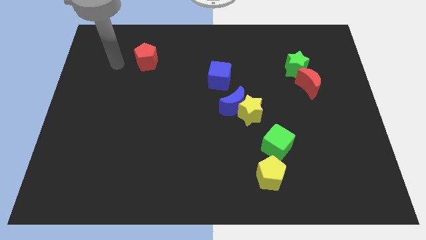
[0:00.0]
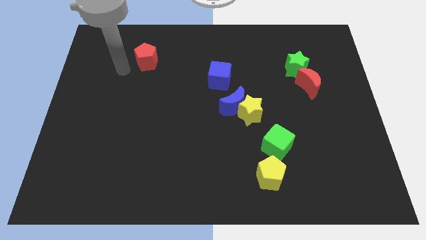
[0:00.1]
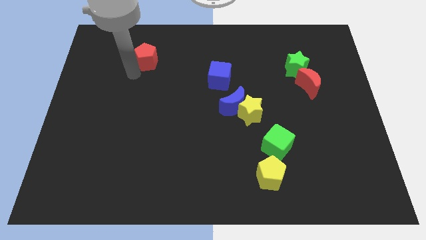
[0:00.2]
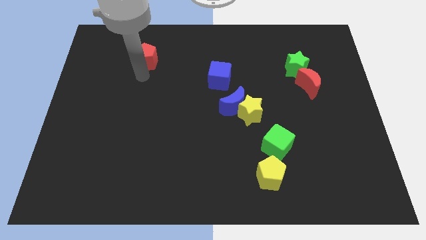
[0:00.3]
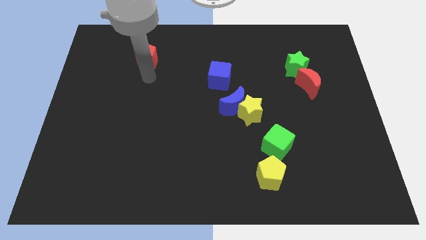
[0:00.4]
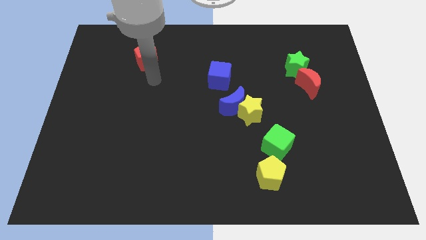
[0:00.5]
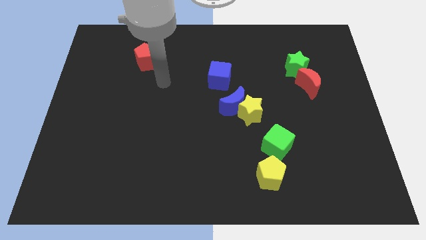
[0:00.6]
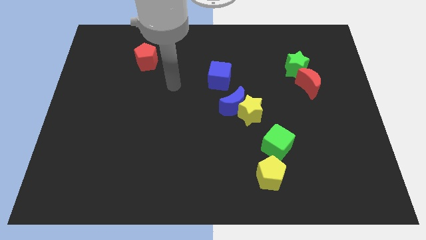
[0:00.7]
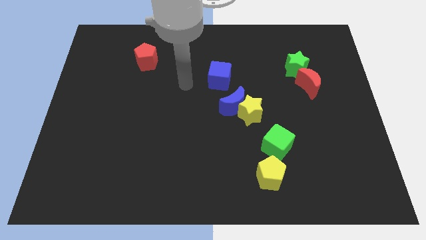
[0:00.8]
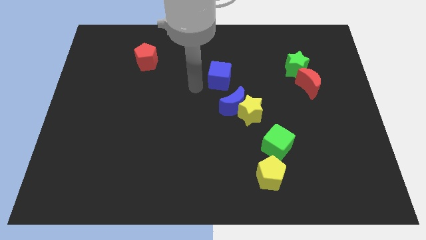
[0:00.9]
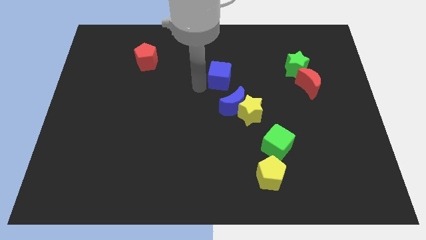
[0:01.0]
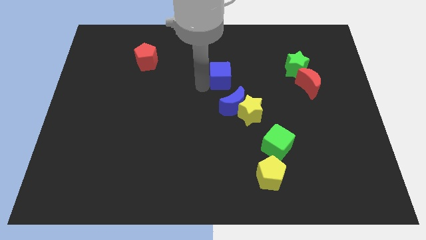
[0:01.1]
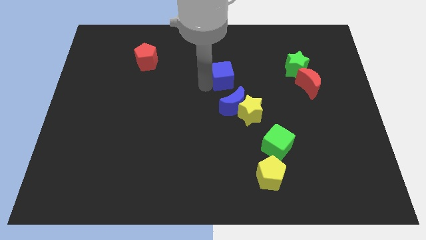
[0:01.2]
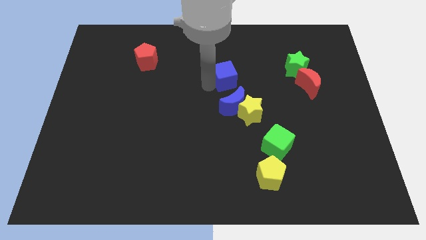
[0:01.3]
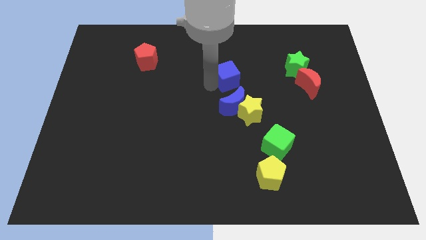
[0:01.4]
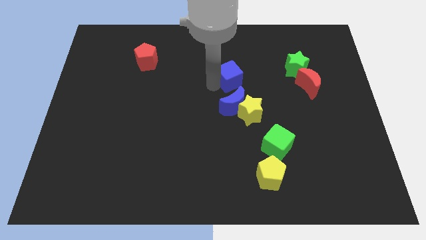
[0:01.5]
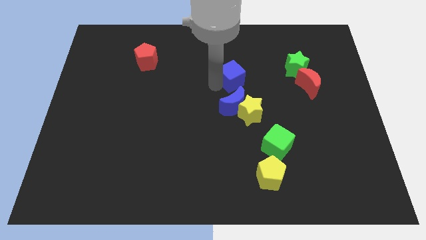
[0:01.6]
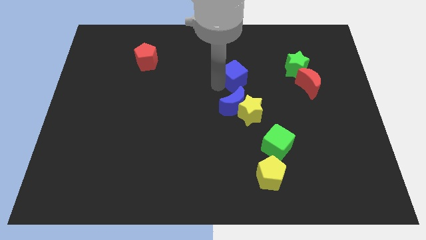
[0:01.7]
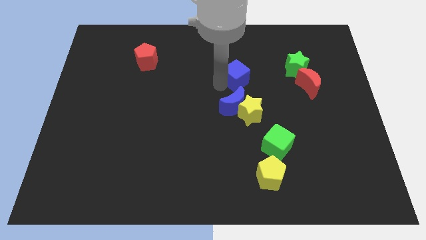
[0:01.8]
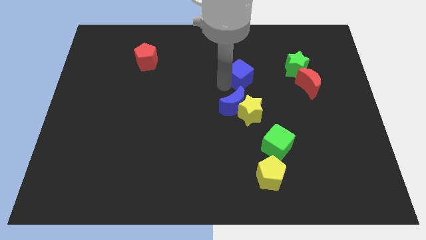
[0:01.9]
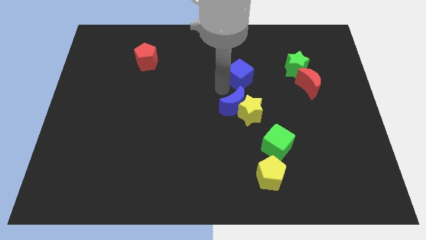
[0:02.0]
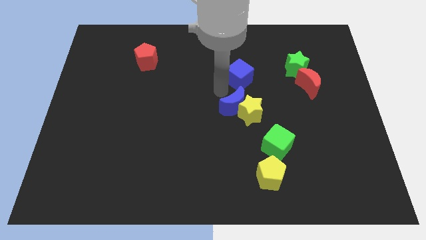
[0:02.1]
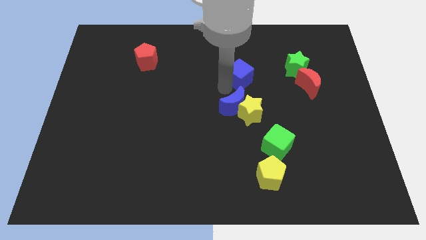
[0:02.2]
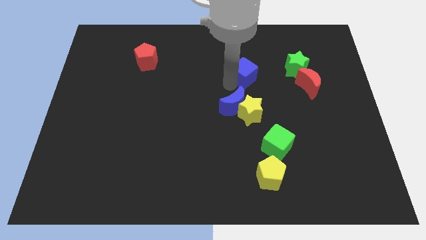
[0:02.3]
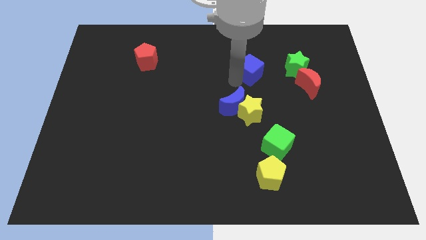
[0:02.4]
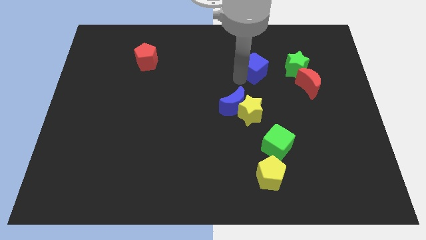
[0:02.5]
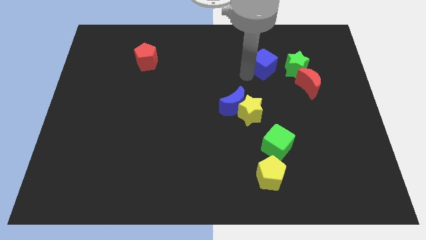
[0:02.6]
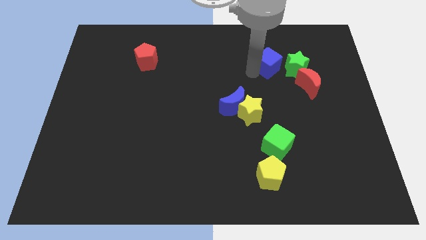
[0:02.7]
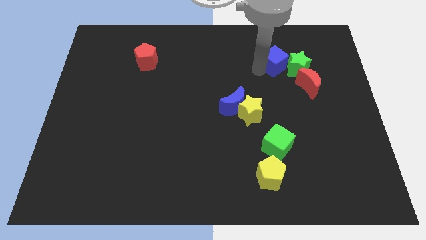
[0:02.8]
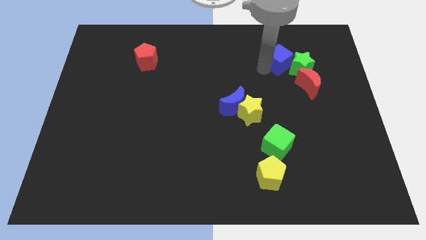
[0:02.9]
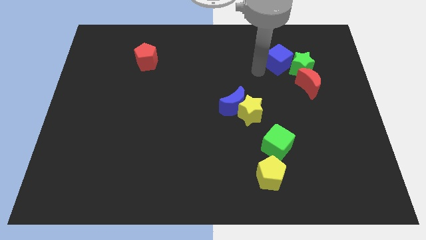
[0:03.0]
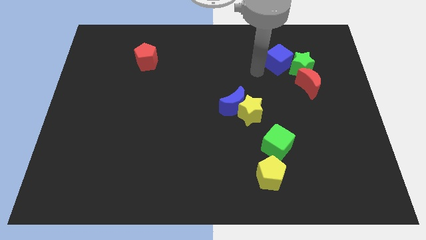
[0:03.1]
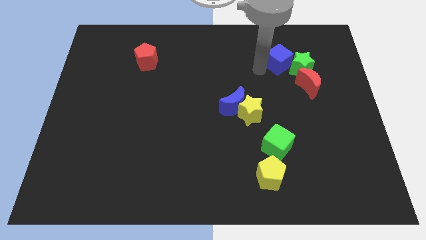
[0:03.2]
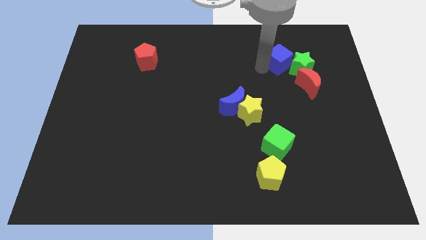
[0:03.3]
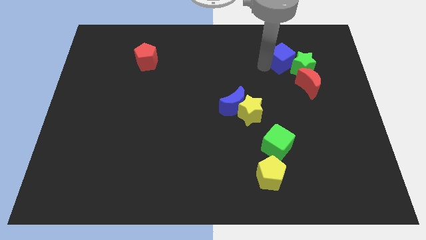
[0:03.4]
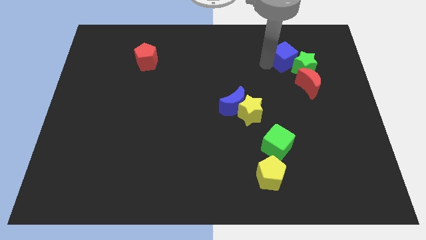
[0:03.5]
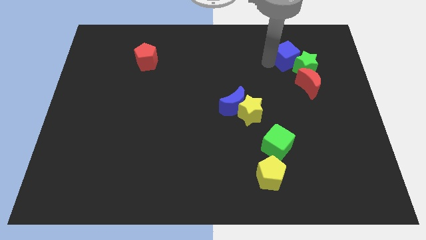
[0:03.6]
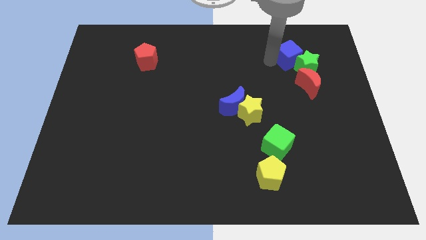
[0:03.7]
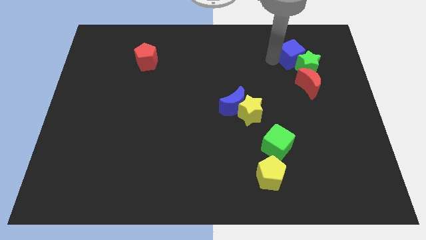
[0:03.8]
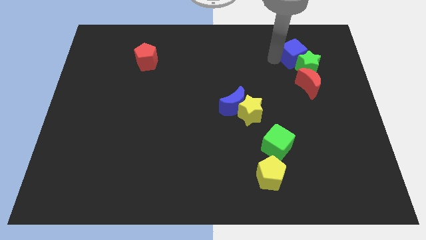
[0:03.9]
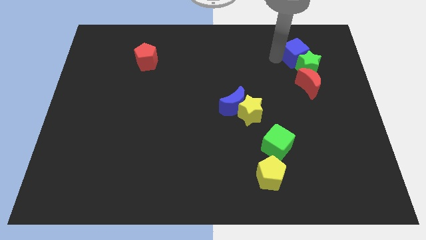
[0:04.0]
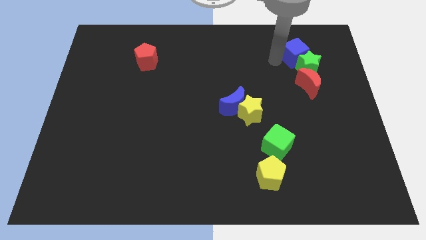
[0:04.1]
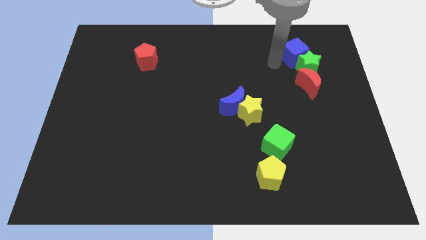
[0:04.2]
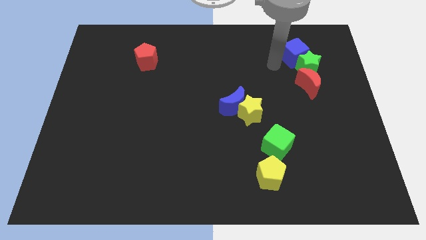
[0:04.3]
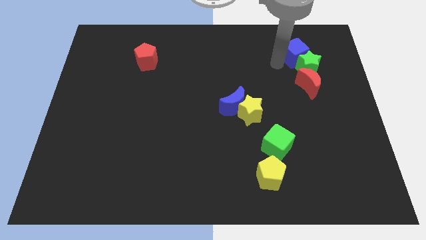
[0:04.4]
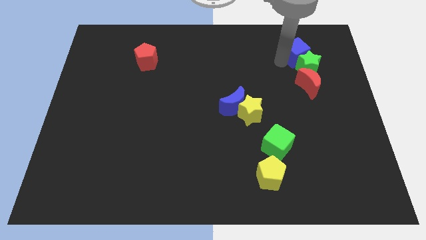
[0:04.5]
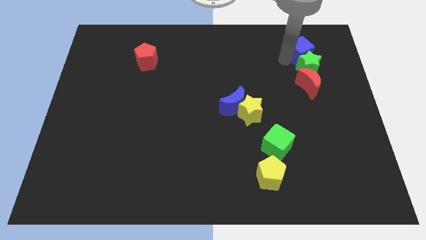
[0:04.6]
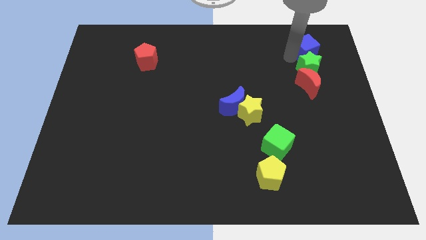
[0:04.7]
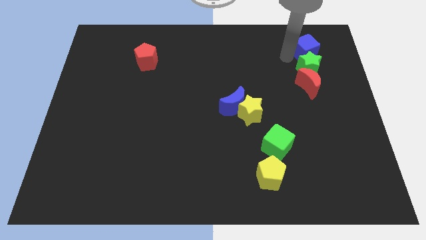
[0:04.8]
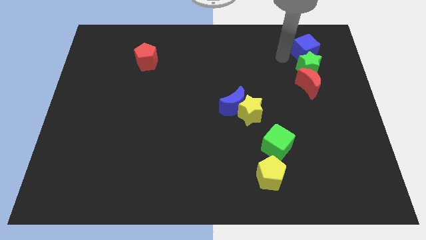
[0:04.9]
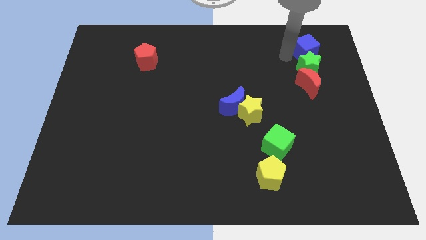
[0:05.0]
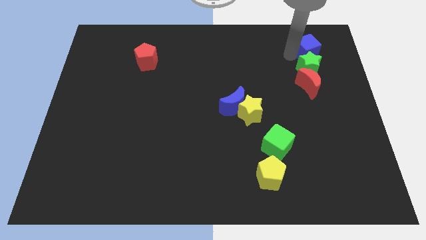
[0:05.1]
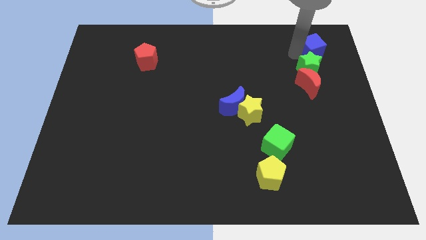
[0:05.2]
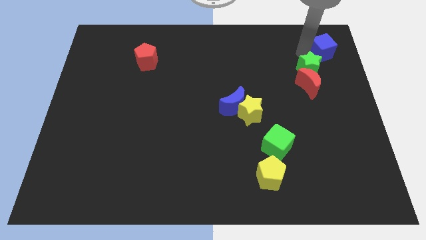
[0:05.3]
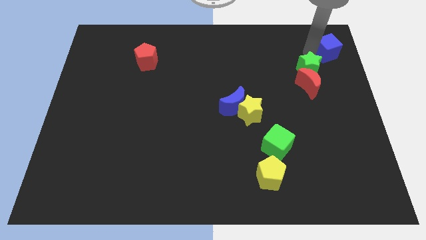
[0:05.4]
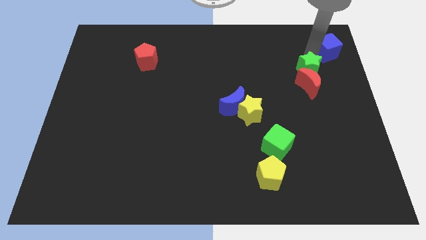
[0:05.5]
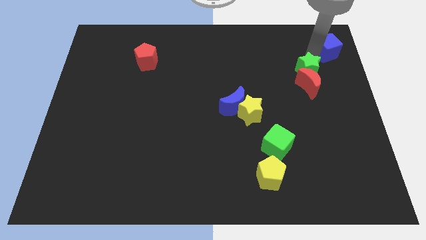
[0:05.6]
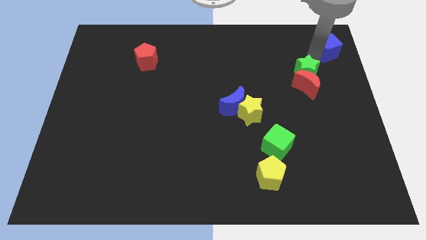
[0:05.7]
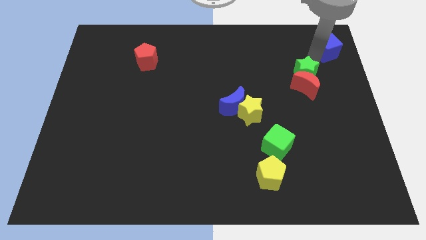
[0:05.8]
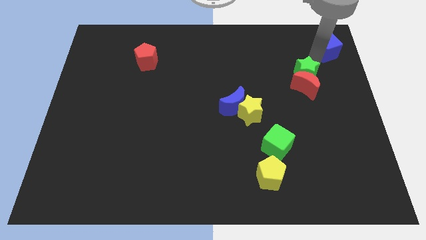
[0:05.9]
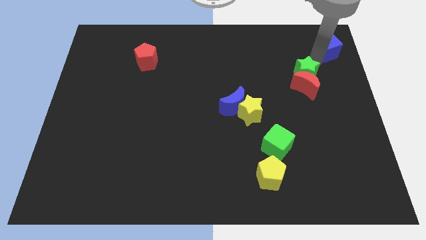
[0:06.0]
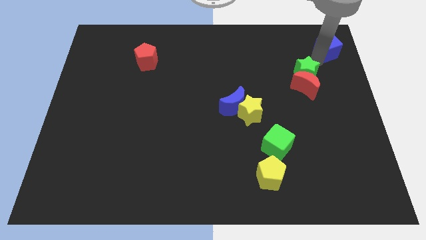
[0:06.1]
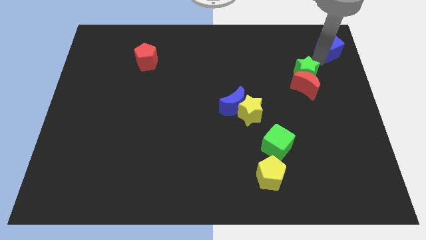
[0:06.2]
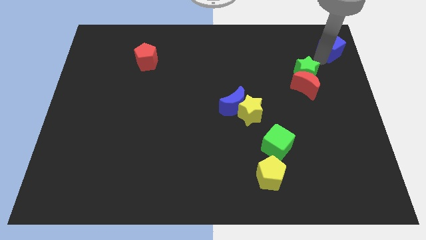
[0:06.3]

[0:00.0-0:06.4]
push the blue cube to the top right corner
